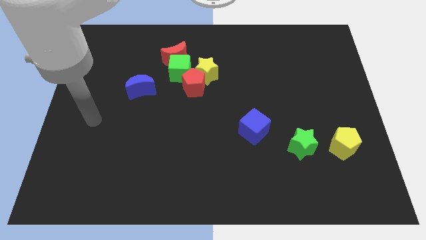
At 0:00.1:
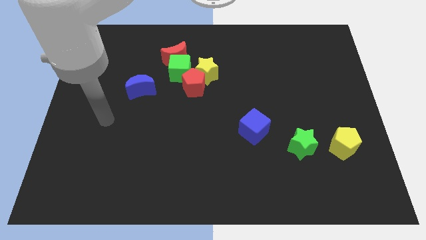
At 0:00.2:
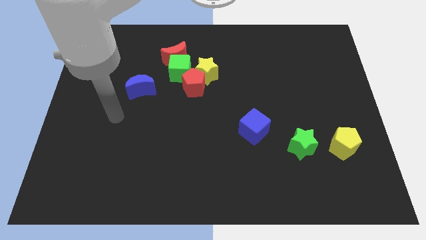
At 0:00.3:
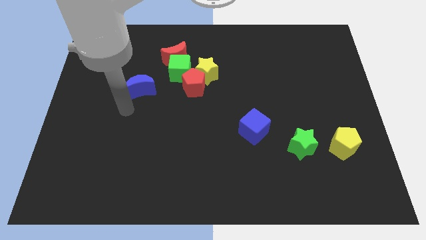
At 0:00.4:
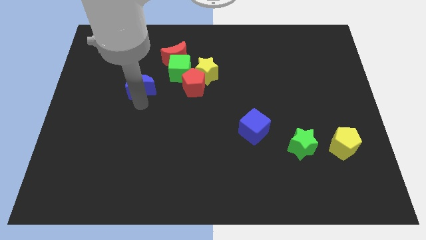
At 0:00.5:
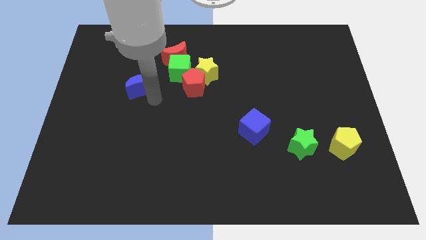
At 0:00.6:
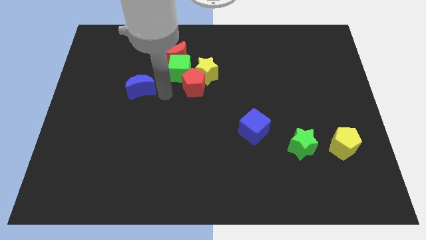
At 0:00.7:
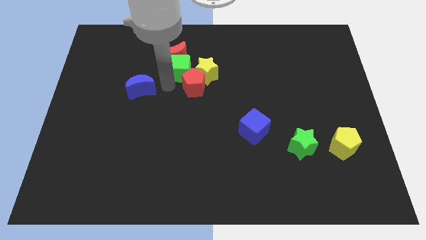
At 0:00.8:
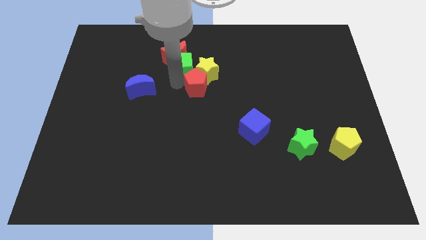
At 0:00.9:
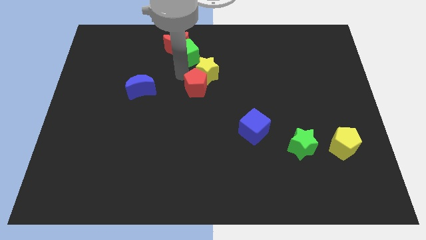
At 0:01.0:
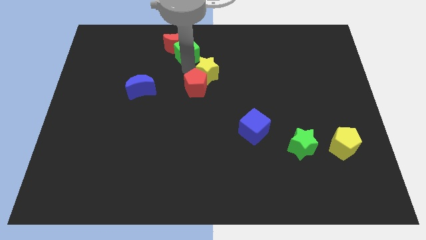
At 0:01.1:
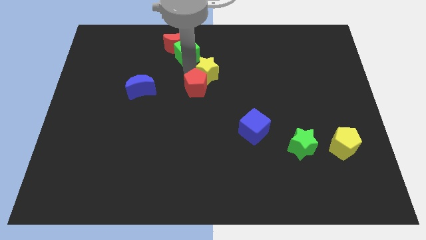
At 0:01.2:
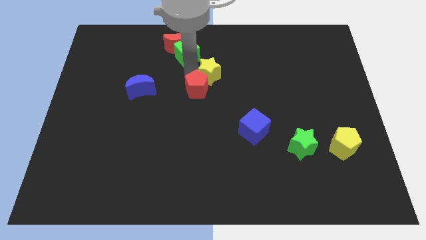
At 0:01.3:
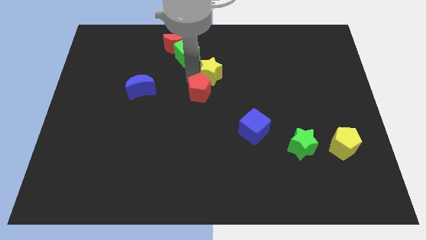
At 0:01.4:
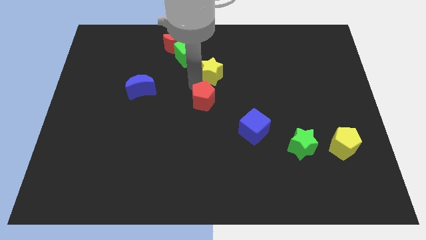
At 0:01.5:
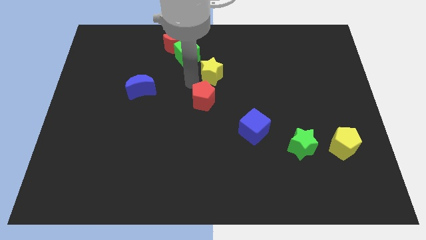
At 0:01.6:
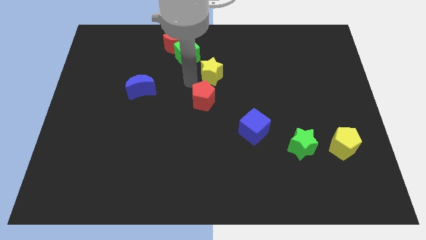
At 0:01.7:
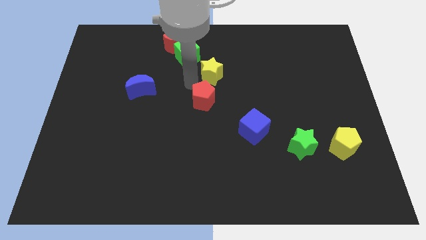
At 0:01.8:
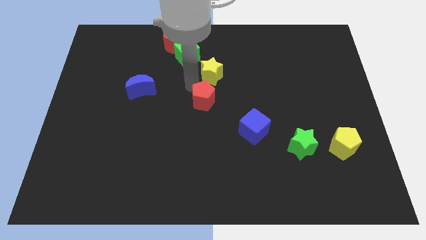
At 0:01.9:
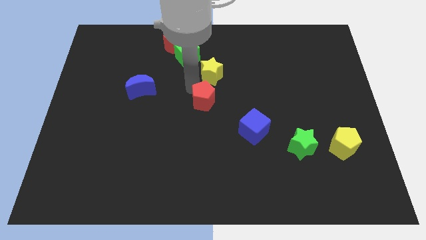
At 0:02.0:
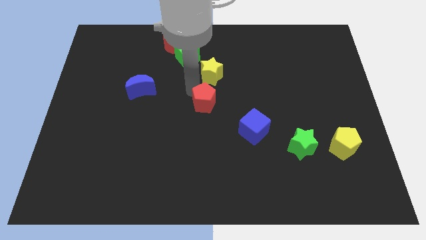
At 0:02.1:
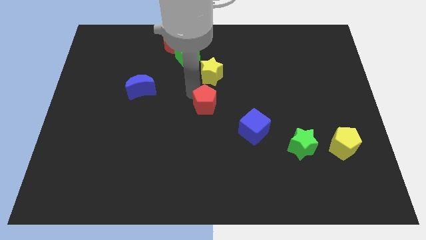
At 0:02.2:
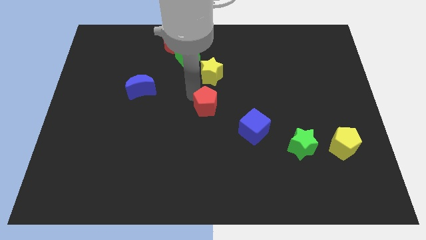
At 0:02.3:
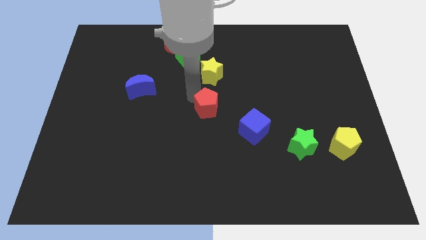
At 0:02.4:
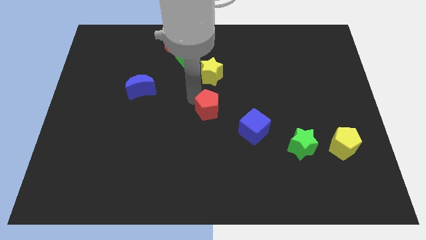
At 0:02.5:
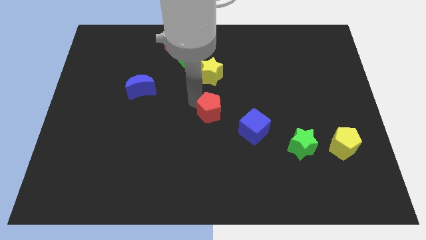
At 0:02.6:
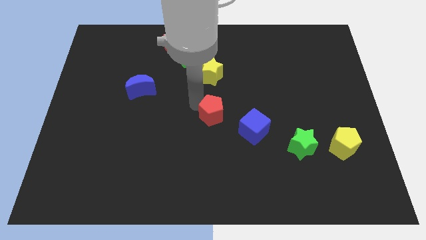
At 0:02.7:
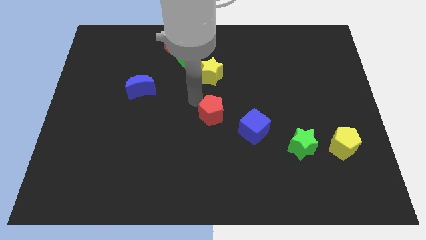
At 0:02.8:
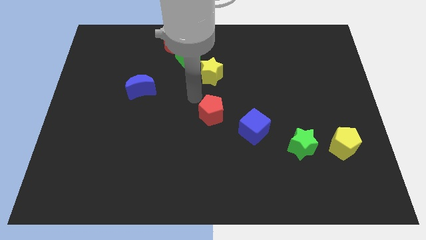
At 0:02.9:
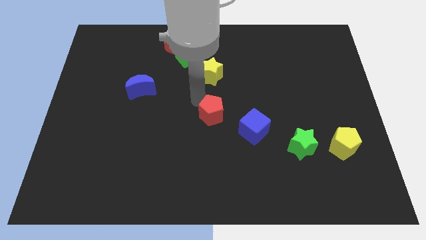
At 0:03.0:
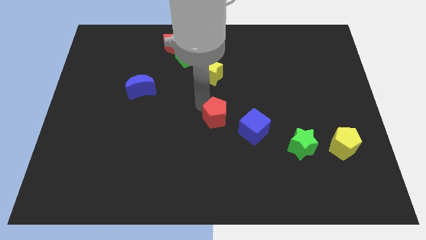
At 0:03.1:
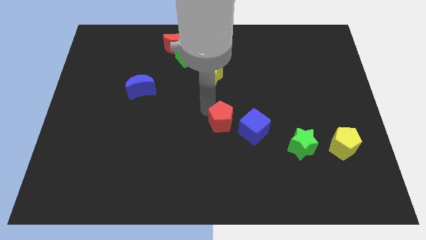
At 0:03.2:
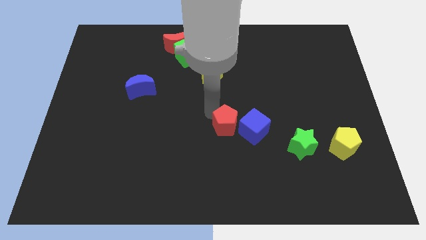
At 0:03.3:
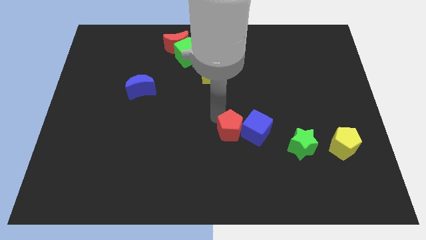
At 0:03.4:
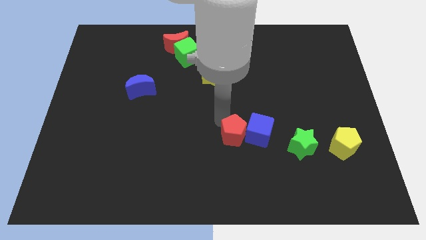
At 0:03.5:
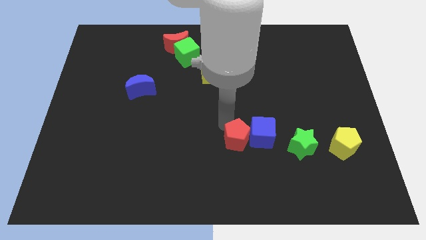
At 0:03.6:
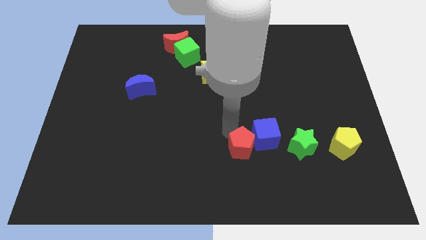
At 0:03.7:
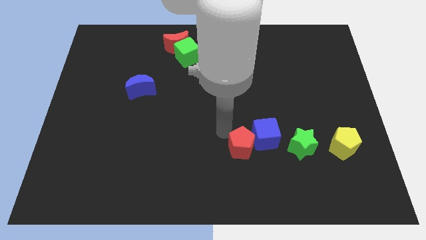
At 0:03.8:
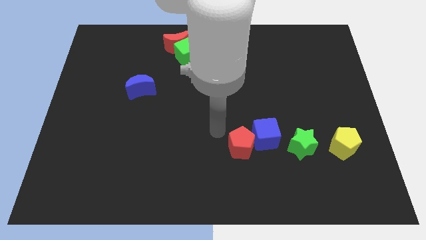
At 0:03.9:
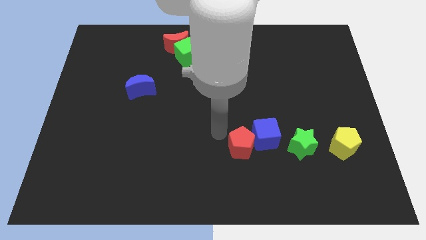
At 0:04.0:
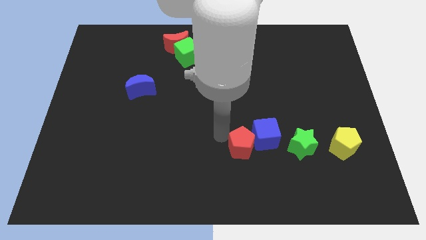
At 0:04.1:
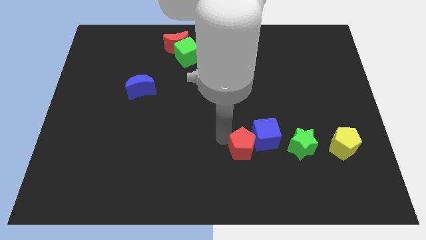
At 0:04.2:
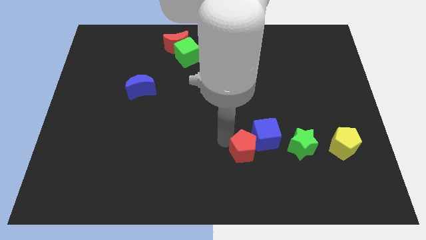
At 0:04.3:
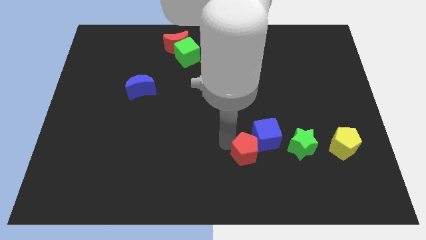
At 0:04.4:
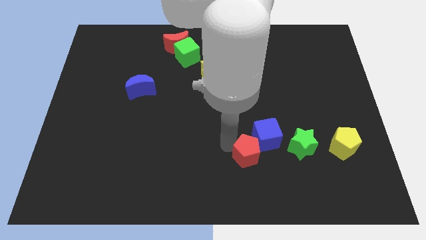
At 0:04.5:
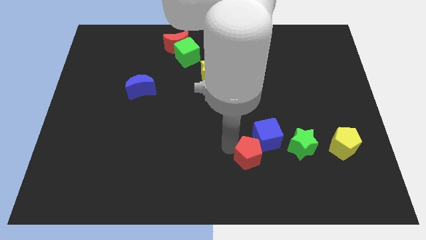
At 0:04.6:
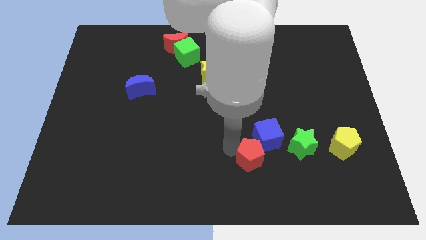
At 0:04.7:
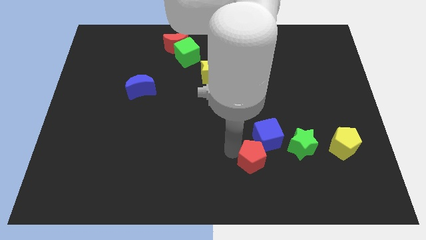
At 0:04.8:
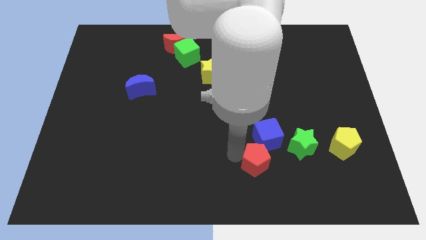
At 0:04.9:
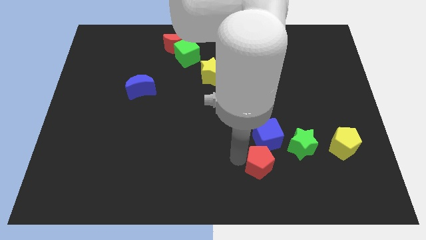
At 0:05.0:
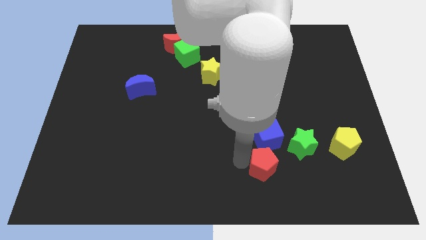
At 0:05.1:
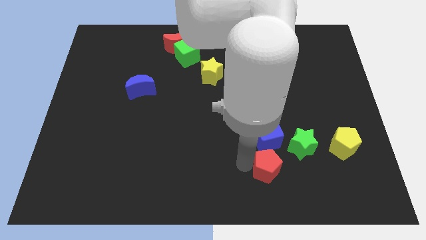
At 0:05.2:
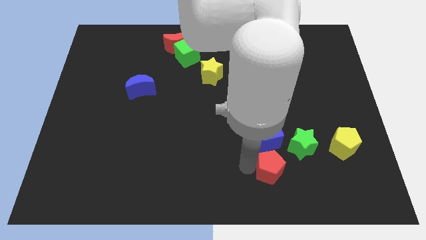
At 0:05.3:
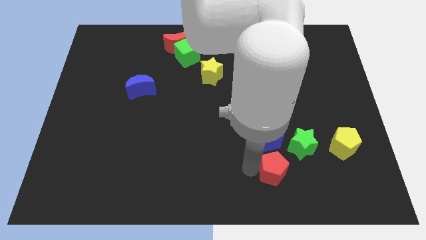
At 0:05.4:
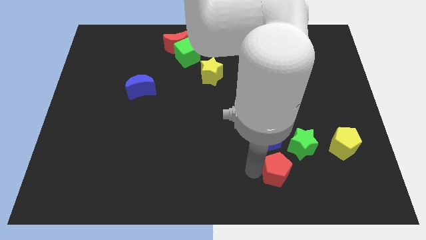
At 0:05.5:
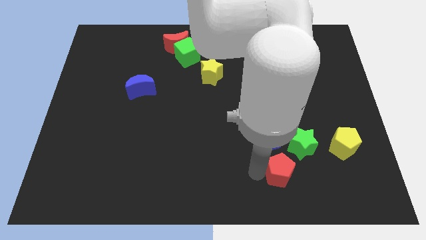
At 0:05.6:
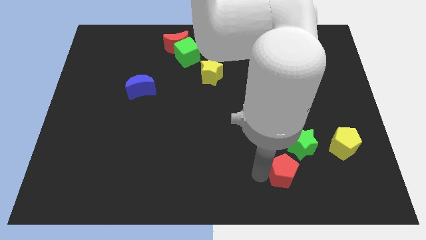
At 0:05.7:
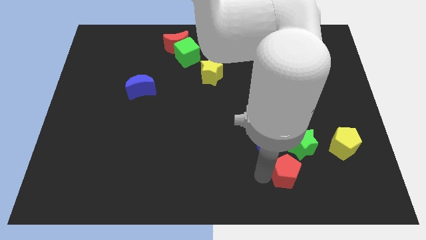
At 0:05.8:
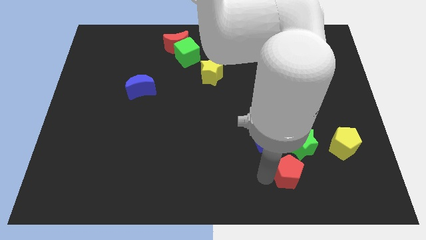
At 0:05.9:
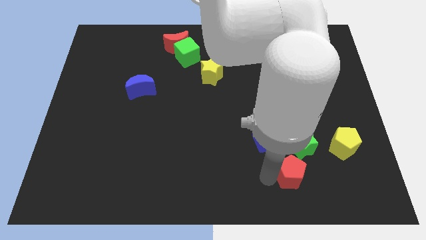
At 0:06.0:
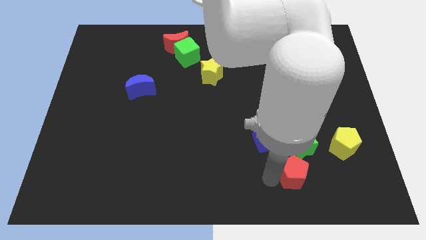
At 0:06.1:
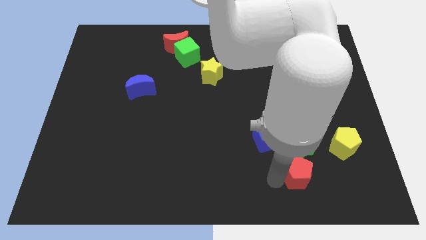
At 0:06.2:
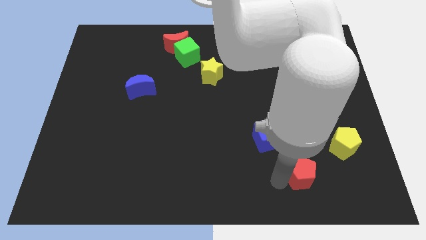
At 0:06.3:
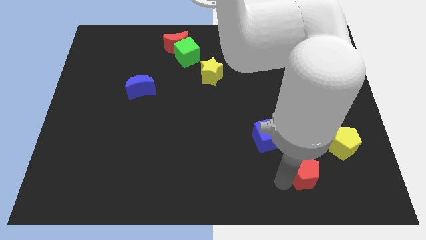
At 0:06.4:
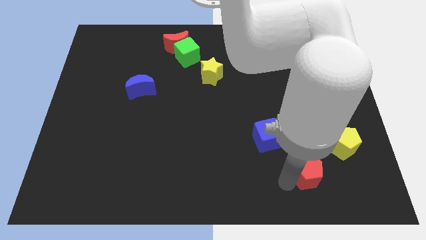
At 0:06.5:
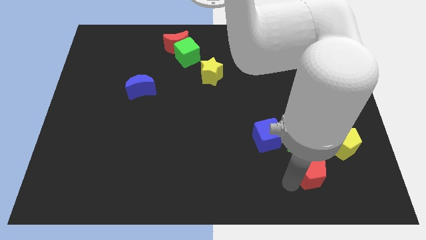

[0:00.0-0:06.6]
put the red pentagon to the bottom right side of the green star

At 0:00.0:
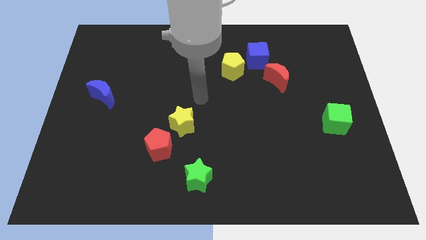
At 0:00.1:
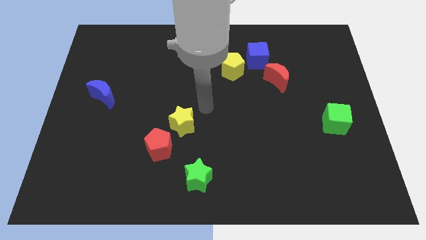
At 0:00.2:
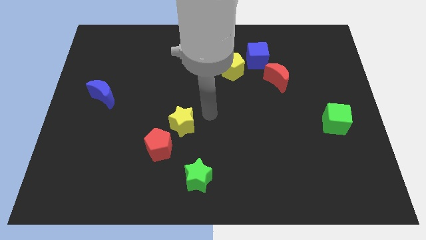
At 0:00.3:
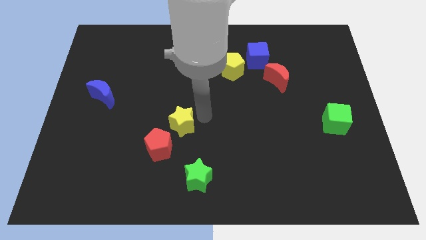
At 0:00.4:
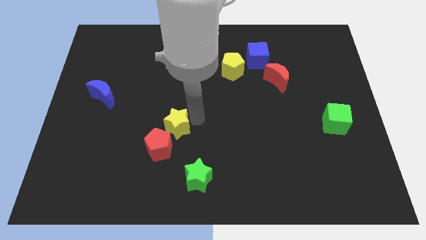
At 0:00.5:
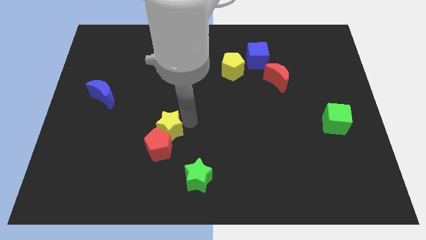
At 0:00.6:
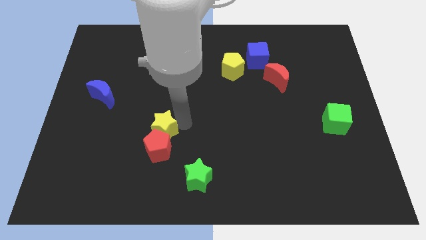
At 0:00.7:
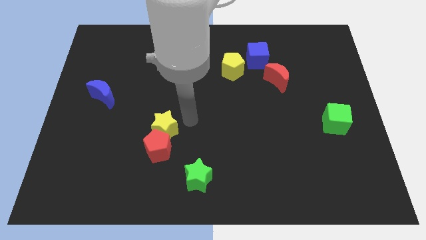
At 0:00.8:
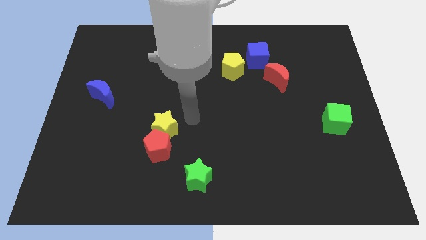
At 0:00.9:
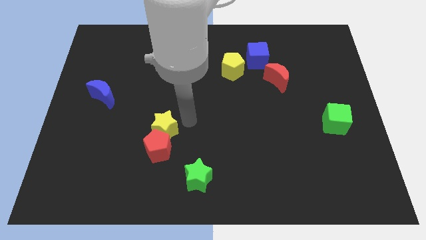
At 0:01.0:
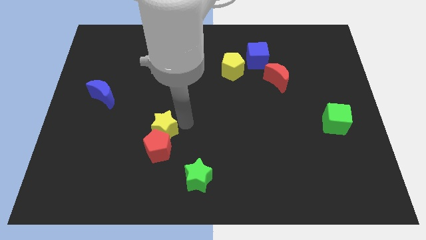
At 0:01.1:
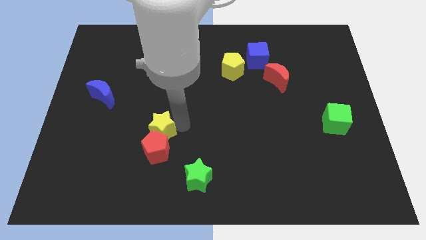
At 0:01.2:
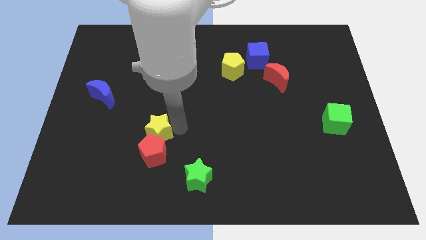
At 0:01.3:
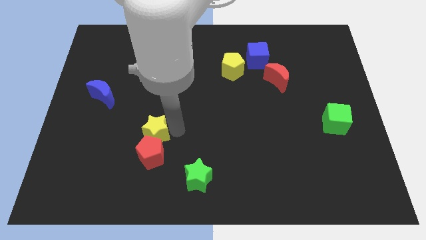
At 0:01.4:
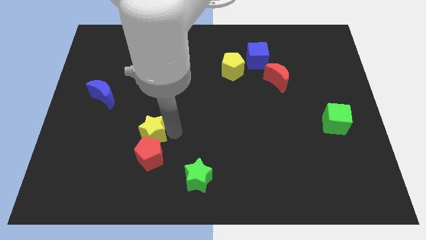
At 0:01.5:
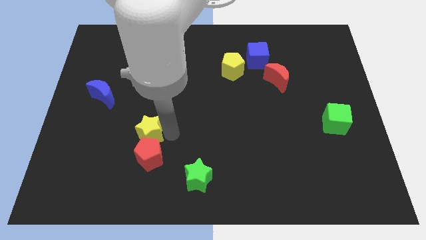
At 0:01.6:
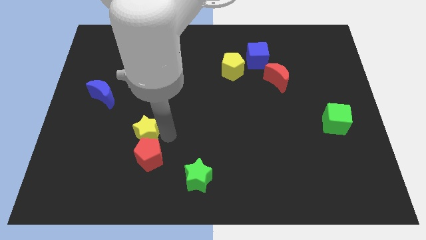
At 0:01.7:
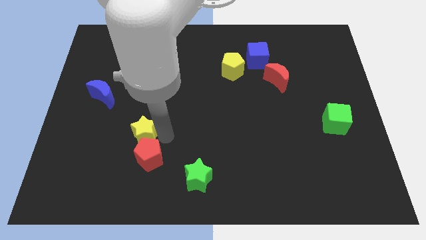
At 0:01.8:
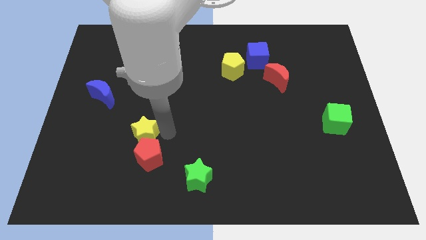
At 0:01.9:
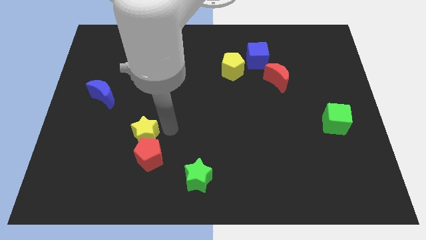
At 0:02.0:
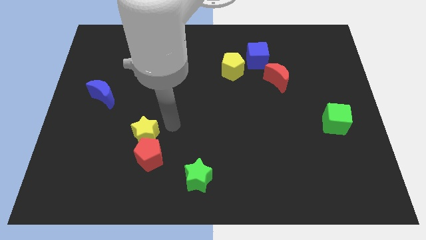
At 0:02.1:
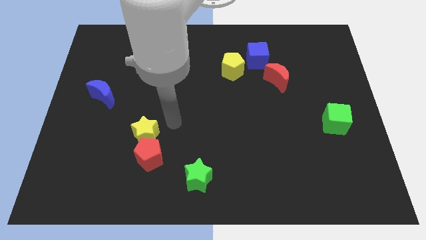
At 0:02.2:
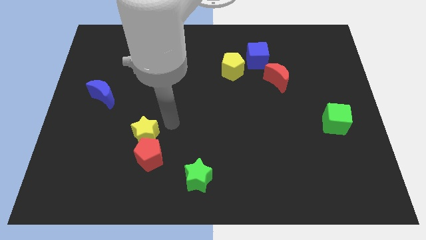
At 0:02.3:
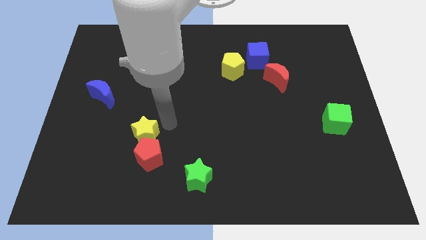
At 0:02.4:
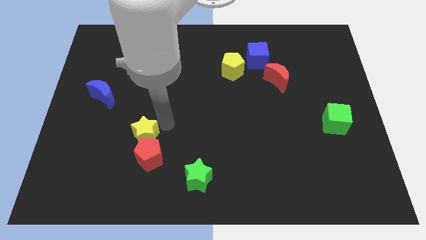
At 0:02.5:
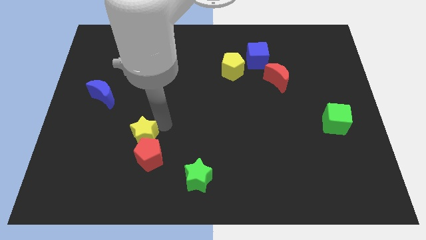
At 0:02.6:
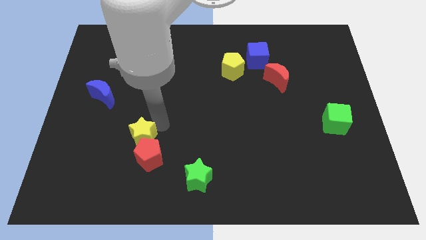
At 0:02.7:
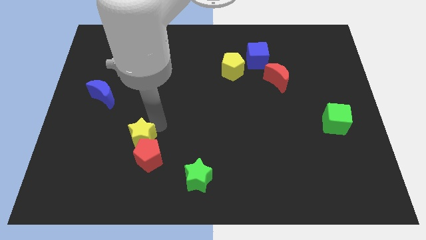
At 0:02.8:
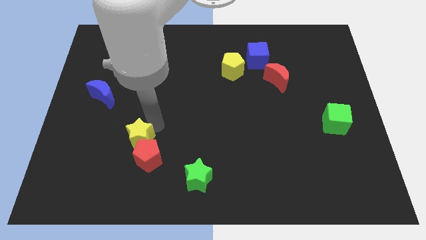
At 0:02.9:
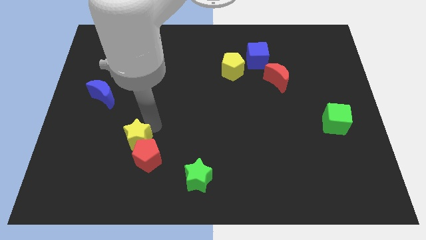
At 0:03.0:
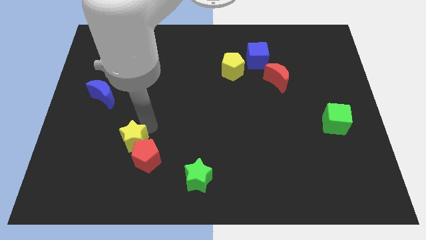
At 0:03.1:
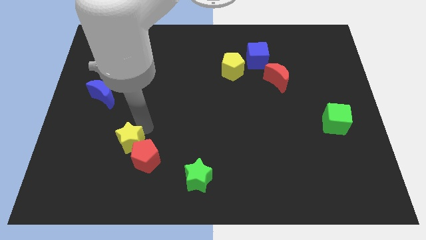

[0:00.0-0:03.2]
move the yellow star to the left of the red pentagon
